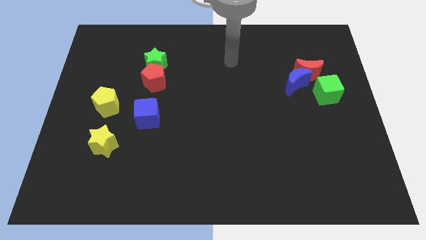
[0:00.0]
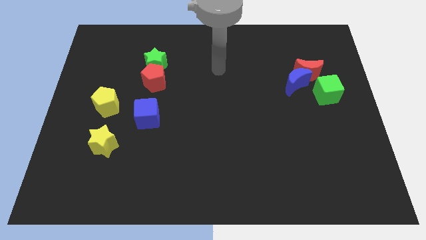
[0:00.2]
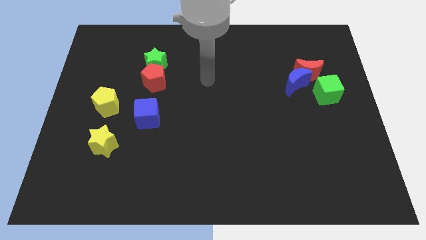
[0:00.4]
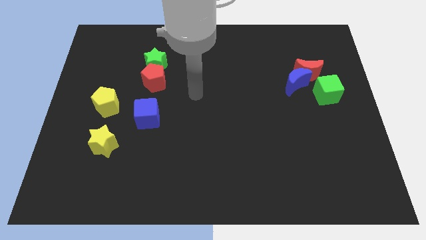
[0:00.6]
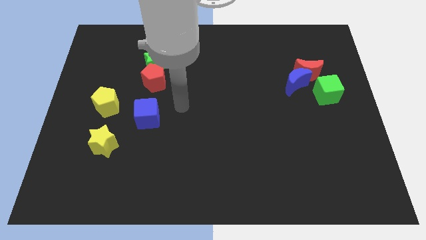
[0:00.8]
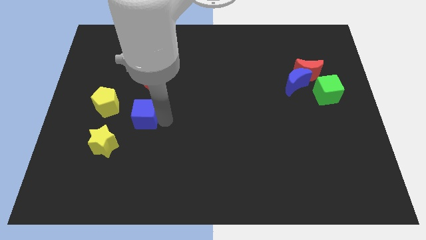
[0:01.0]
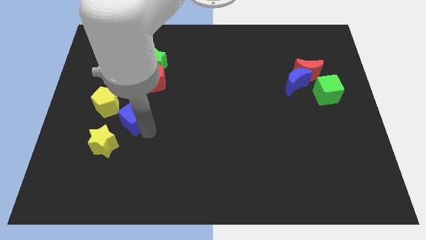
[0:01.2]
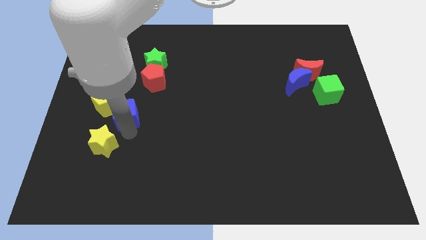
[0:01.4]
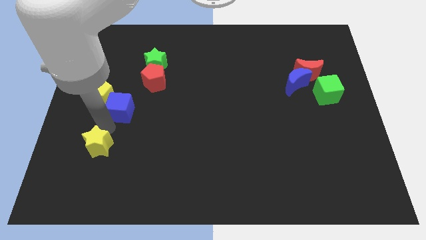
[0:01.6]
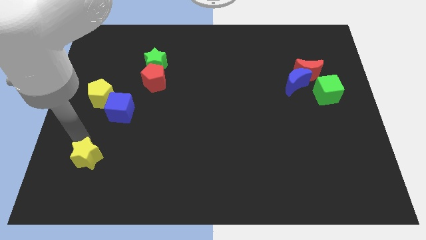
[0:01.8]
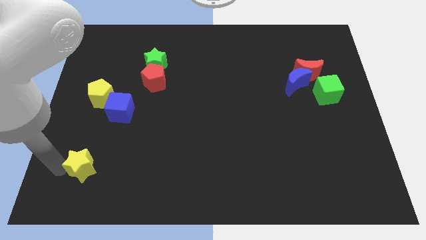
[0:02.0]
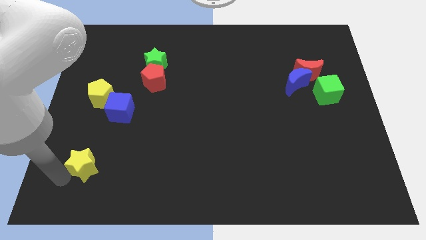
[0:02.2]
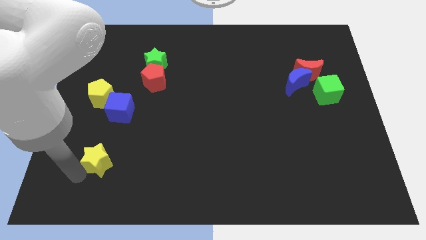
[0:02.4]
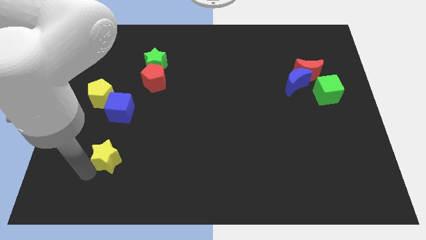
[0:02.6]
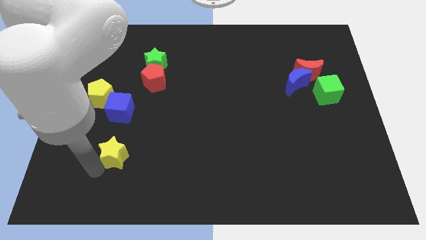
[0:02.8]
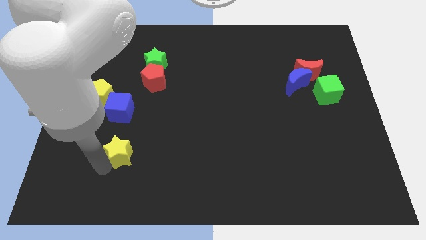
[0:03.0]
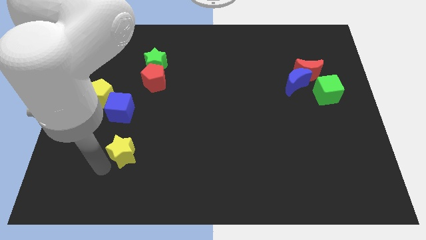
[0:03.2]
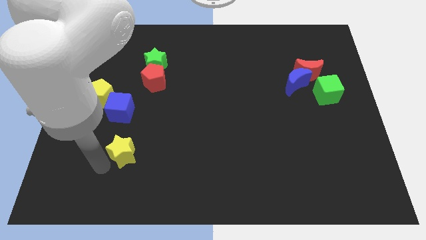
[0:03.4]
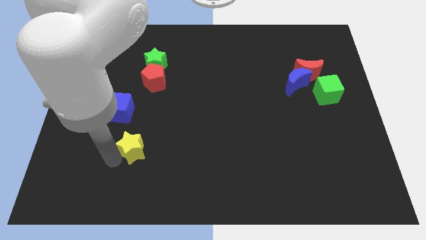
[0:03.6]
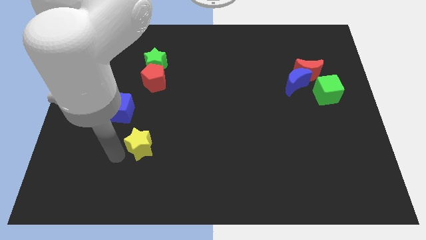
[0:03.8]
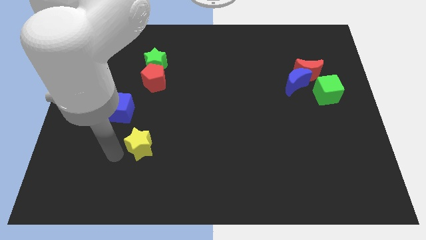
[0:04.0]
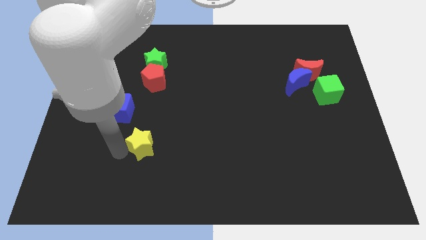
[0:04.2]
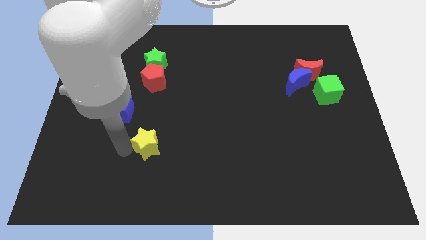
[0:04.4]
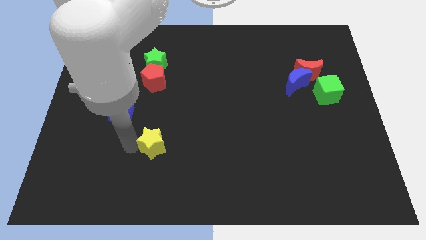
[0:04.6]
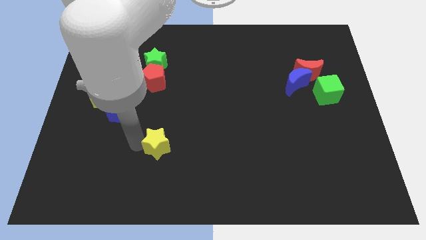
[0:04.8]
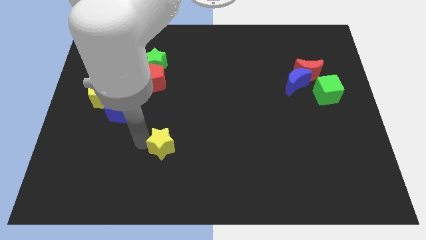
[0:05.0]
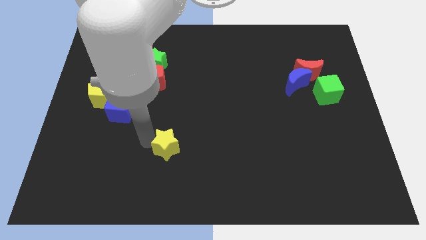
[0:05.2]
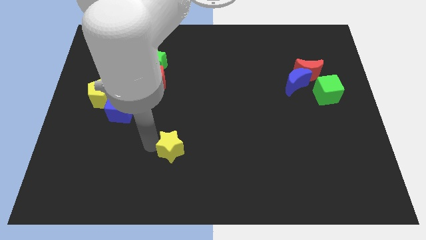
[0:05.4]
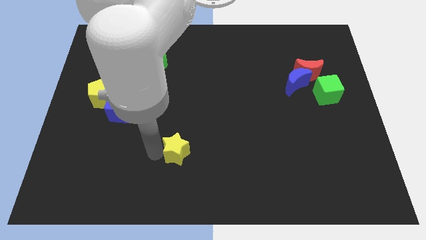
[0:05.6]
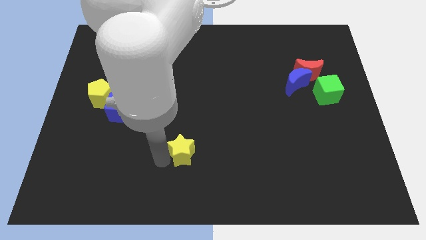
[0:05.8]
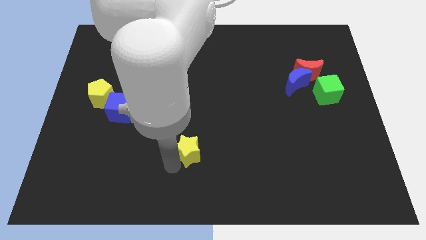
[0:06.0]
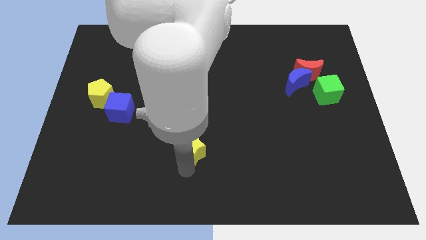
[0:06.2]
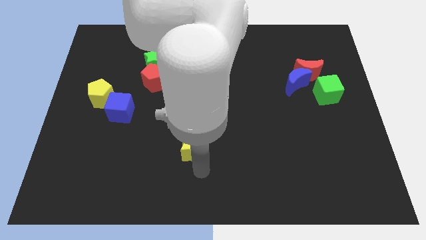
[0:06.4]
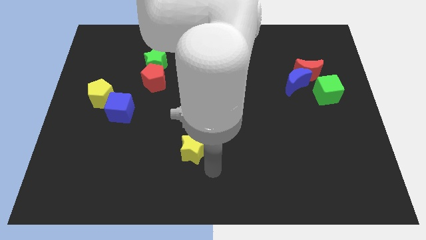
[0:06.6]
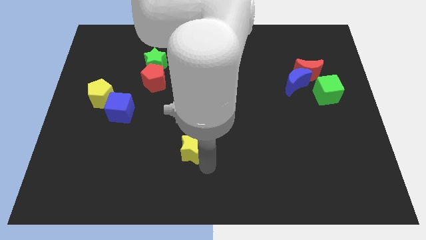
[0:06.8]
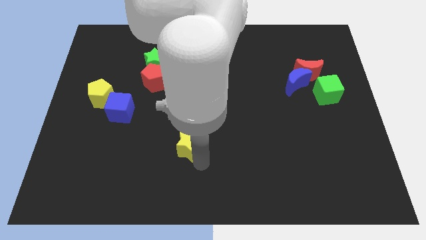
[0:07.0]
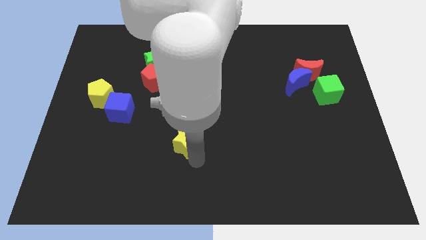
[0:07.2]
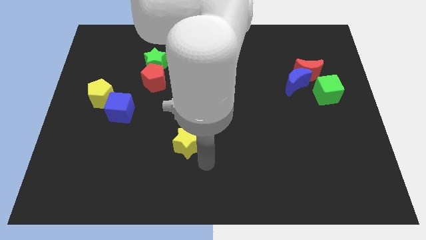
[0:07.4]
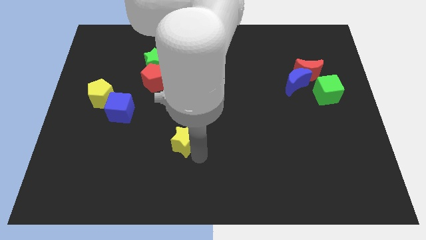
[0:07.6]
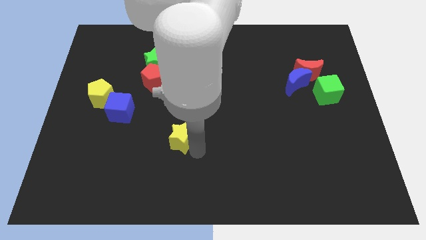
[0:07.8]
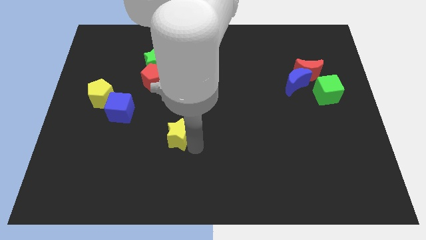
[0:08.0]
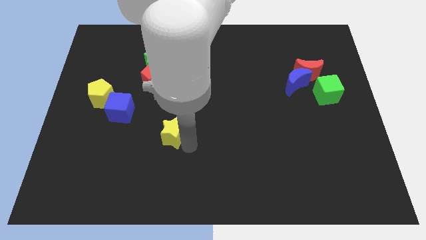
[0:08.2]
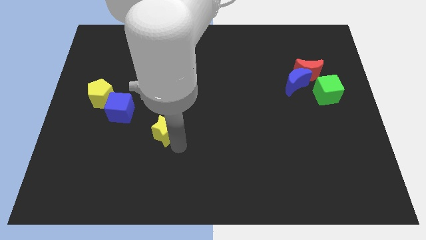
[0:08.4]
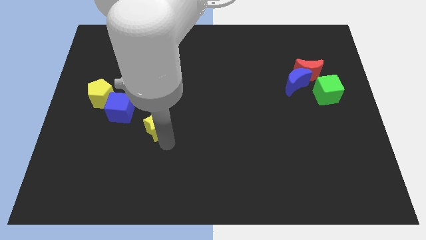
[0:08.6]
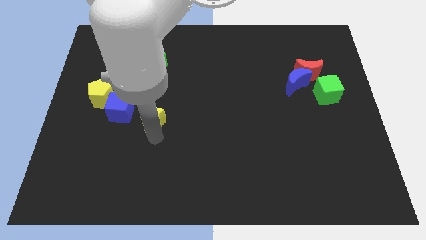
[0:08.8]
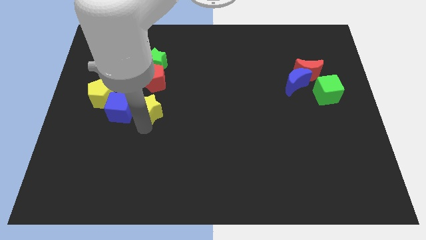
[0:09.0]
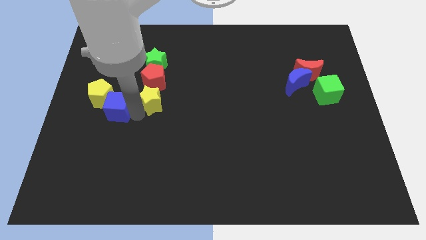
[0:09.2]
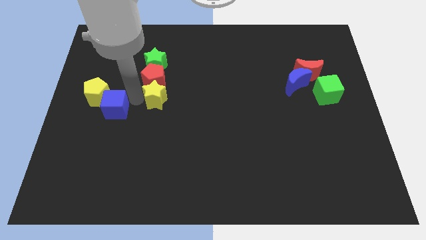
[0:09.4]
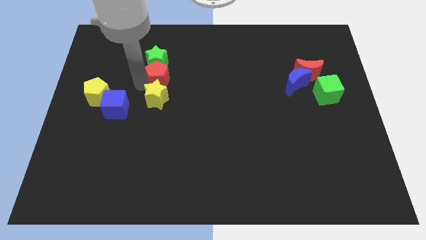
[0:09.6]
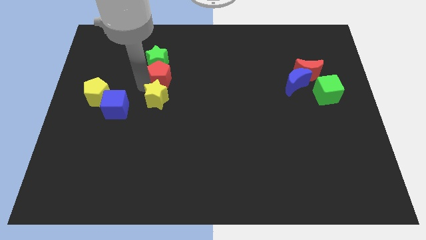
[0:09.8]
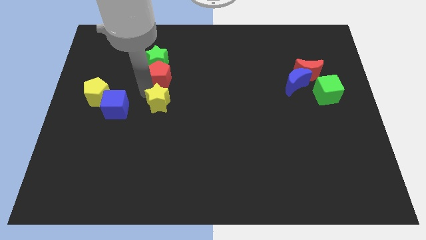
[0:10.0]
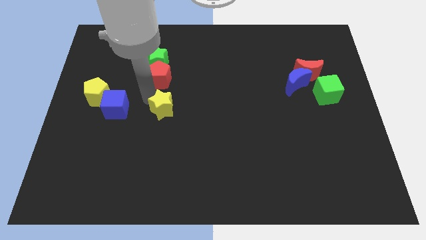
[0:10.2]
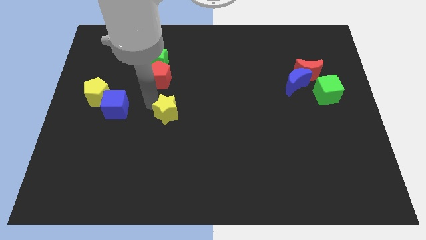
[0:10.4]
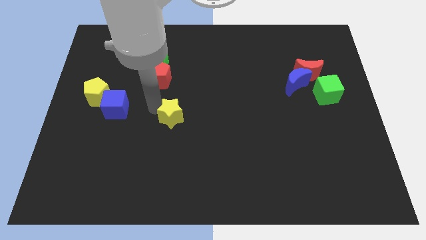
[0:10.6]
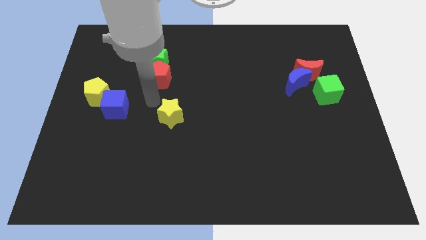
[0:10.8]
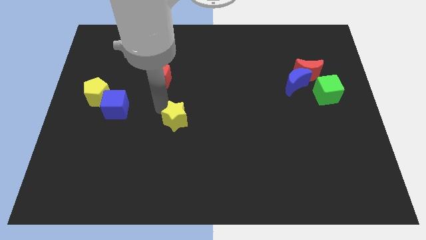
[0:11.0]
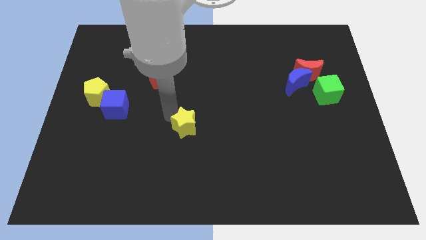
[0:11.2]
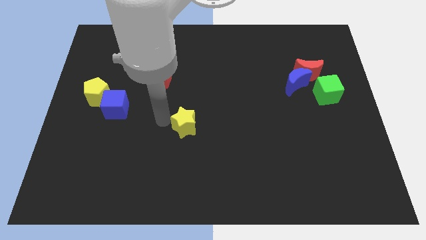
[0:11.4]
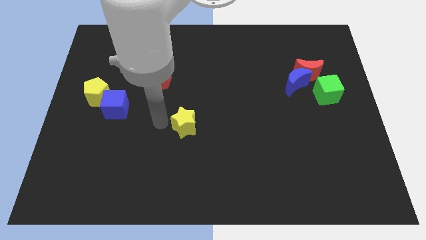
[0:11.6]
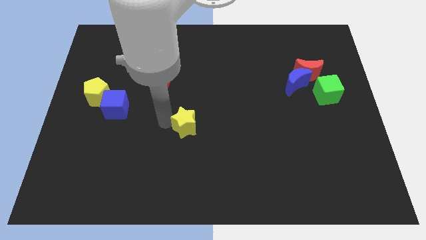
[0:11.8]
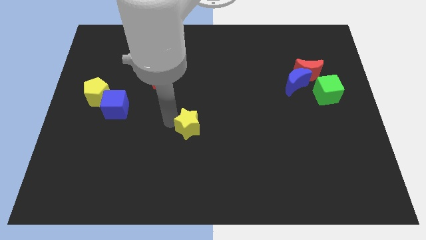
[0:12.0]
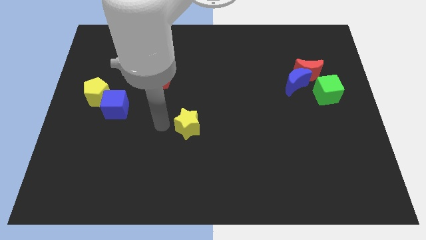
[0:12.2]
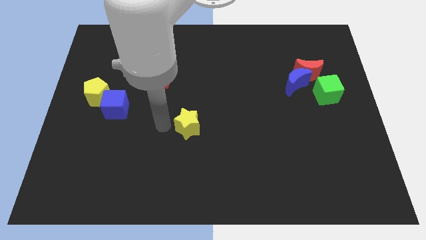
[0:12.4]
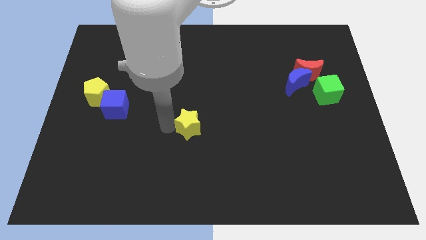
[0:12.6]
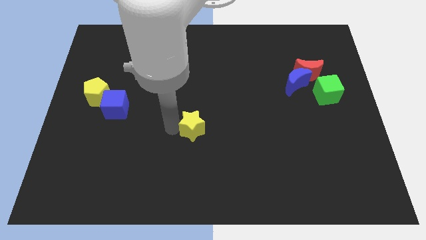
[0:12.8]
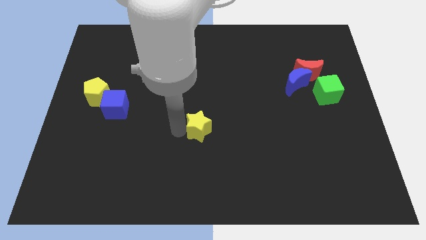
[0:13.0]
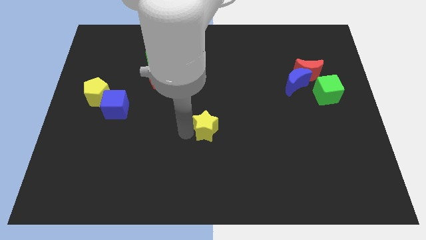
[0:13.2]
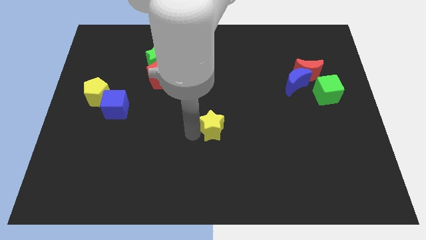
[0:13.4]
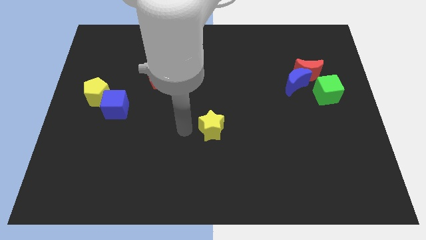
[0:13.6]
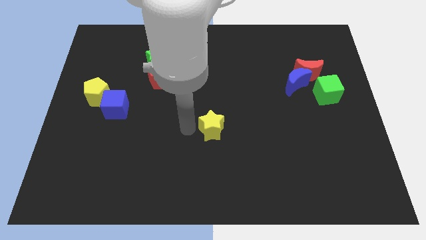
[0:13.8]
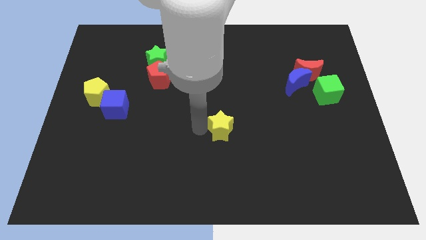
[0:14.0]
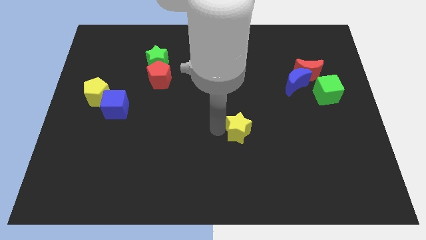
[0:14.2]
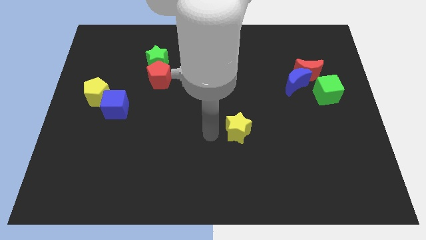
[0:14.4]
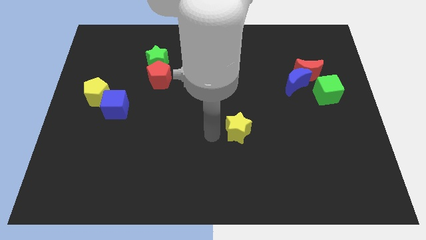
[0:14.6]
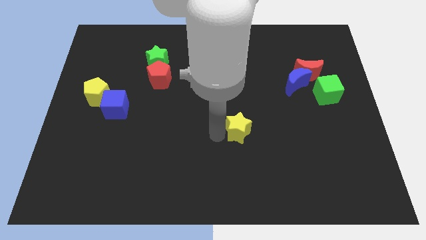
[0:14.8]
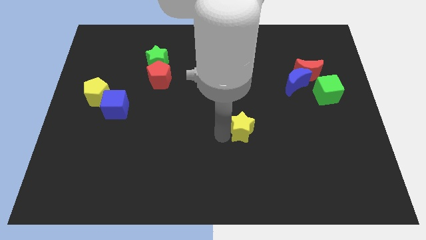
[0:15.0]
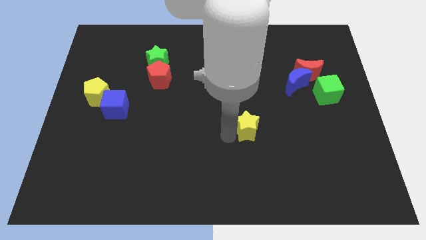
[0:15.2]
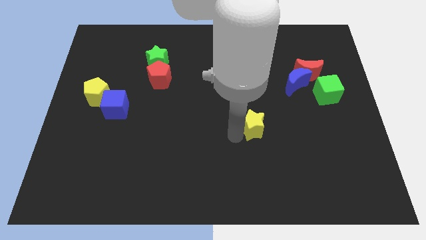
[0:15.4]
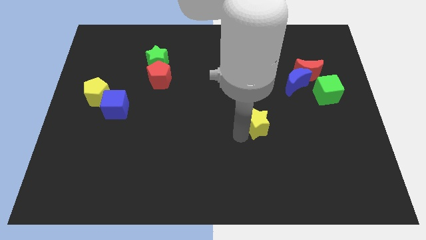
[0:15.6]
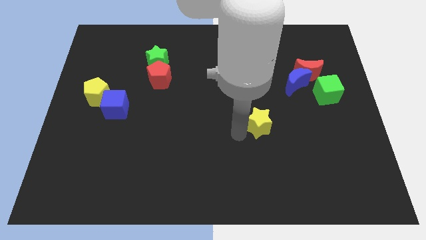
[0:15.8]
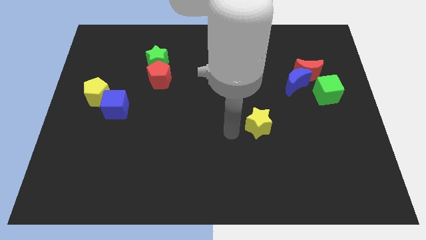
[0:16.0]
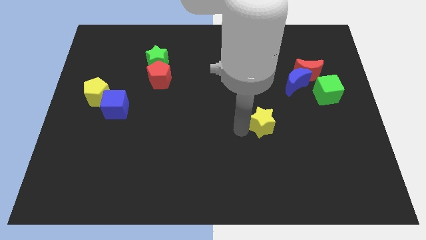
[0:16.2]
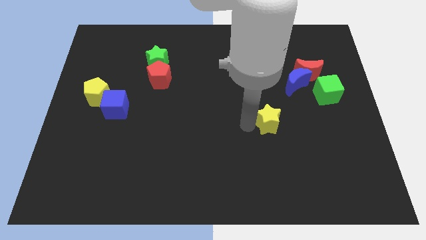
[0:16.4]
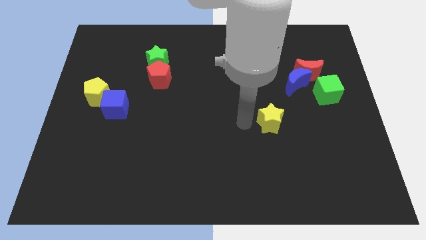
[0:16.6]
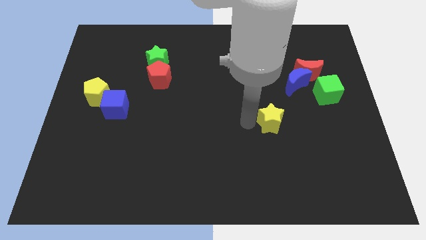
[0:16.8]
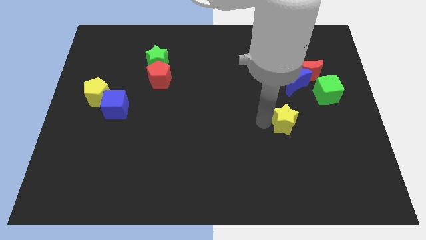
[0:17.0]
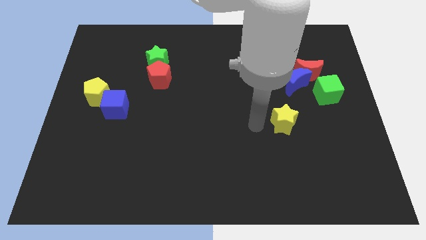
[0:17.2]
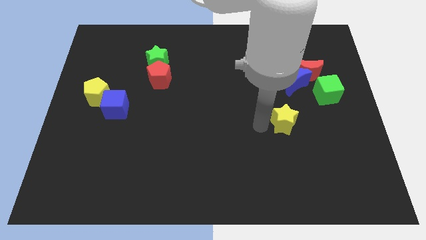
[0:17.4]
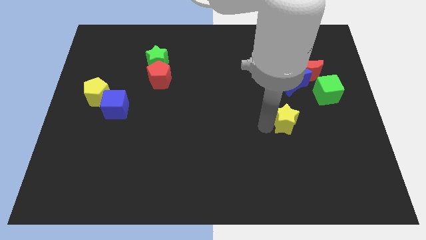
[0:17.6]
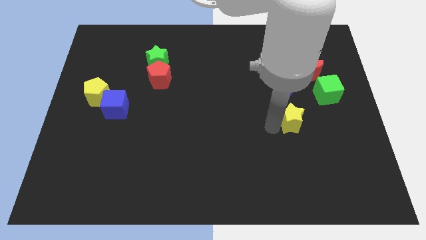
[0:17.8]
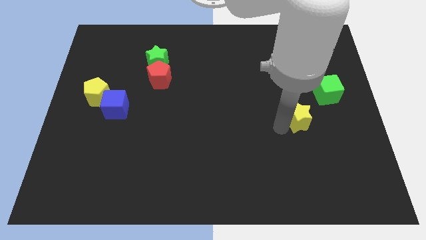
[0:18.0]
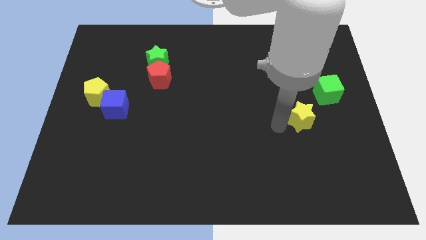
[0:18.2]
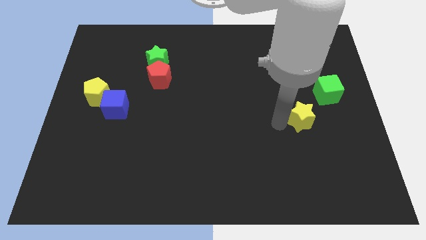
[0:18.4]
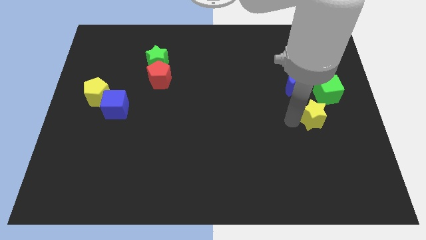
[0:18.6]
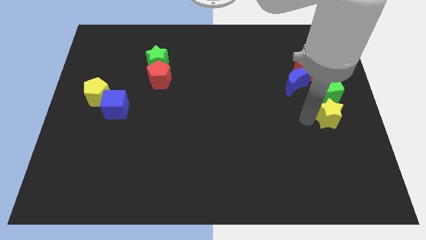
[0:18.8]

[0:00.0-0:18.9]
slide the yellow star to the right side of the board
